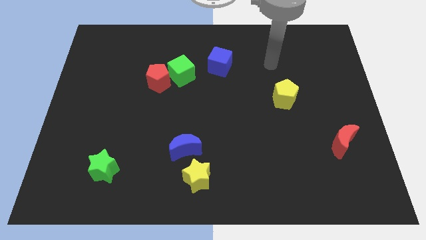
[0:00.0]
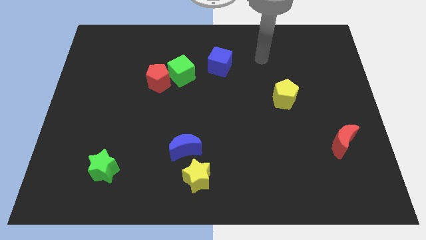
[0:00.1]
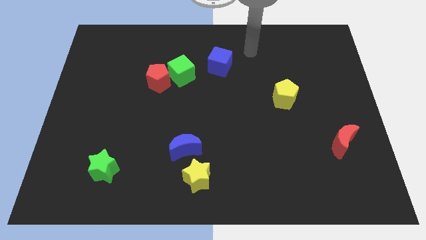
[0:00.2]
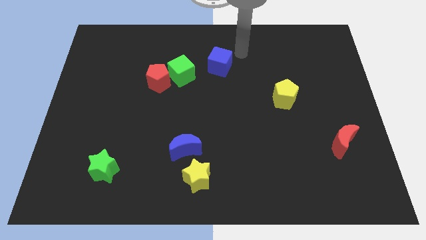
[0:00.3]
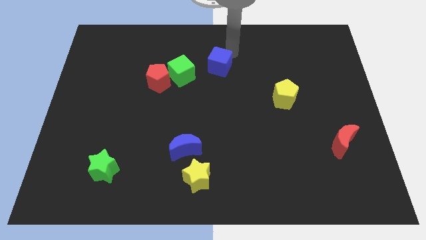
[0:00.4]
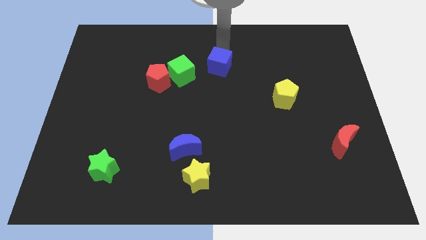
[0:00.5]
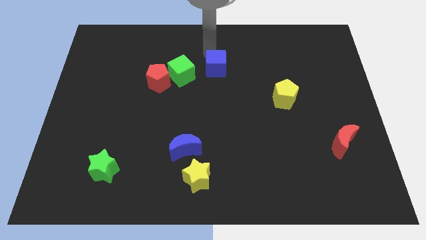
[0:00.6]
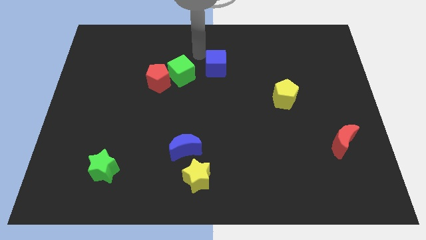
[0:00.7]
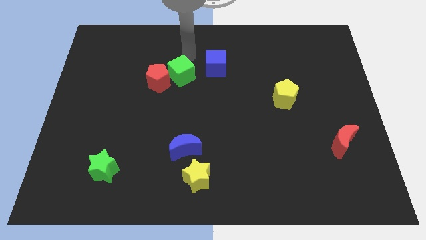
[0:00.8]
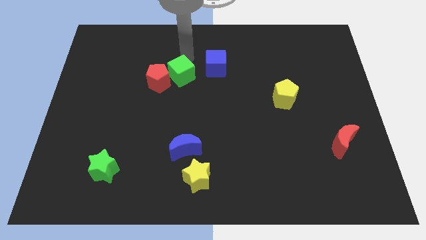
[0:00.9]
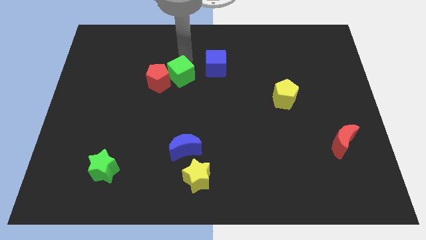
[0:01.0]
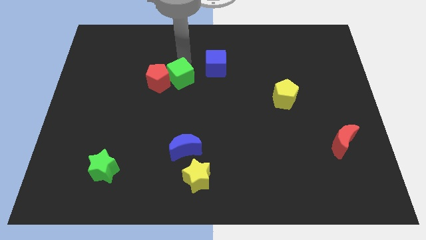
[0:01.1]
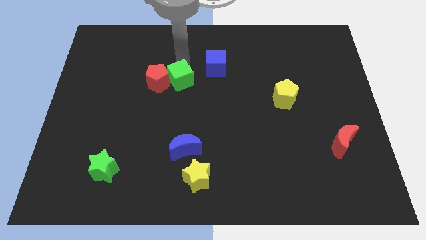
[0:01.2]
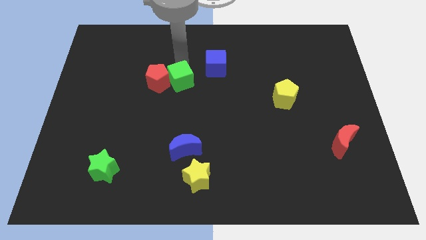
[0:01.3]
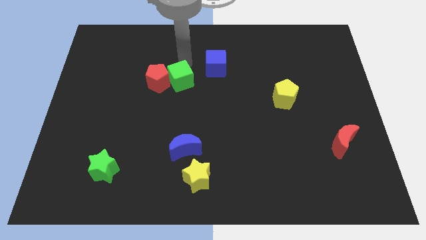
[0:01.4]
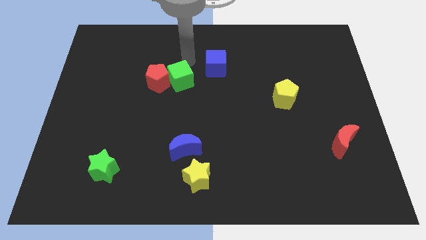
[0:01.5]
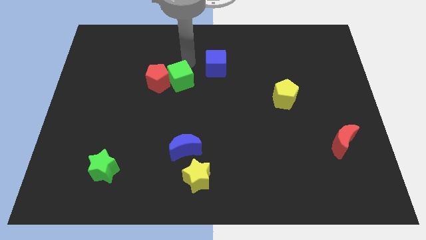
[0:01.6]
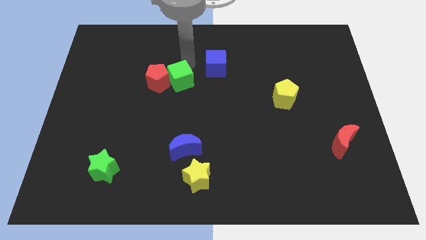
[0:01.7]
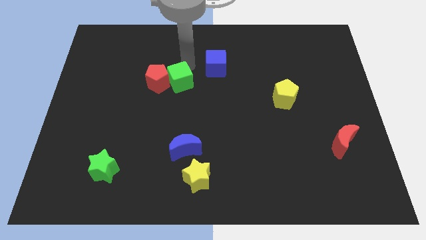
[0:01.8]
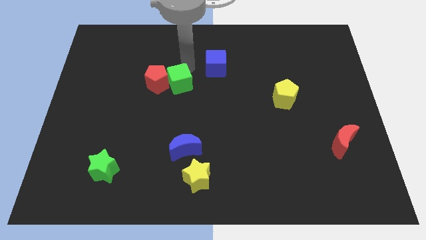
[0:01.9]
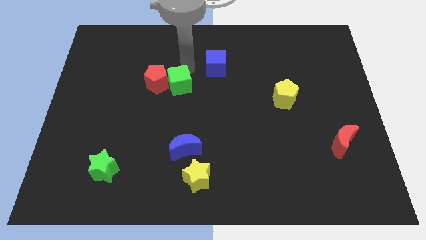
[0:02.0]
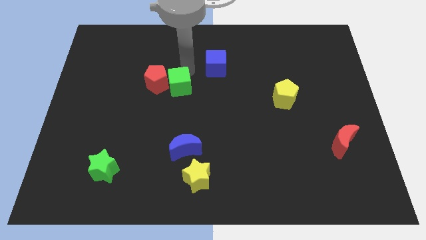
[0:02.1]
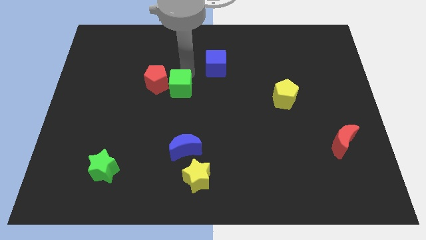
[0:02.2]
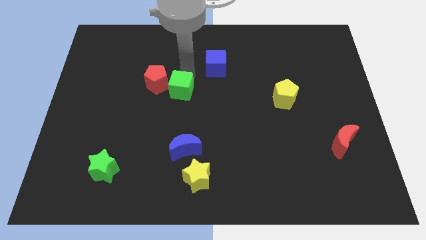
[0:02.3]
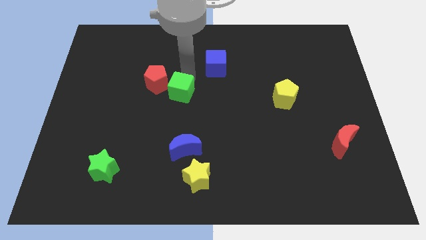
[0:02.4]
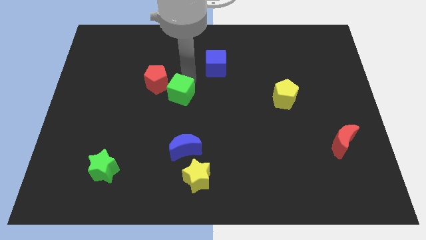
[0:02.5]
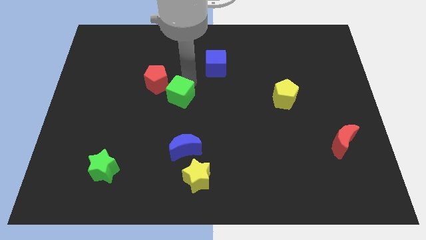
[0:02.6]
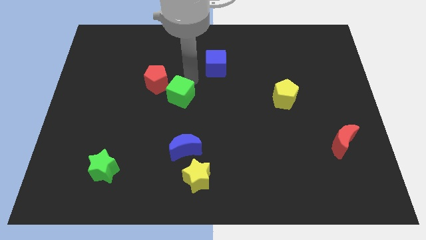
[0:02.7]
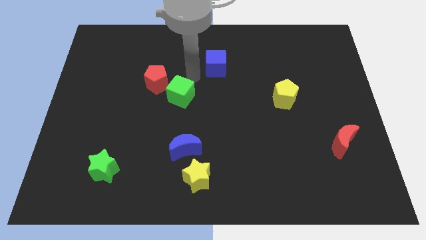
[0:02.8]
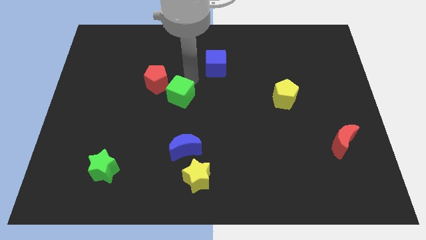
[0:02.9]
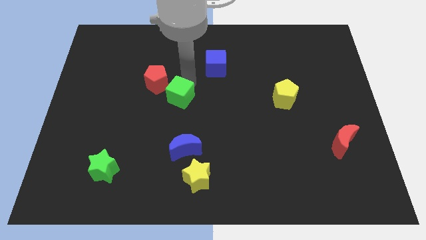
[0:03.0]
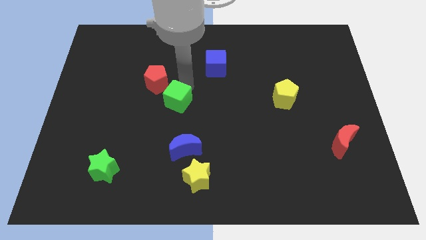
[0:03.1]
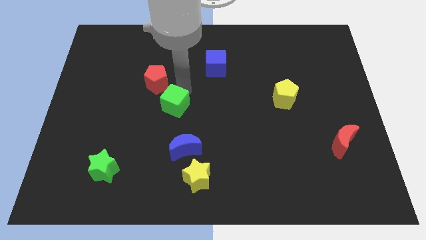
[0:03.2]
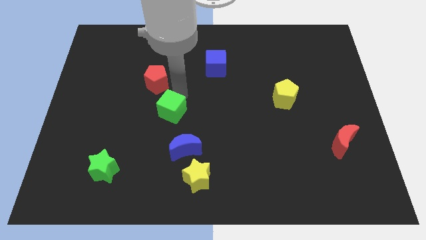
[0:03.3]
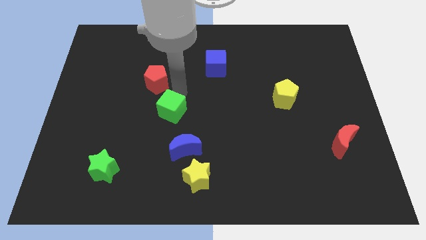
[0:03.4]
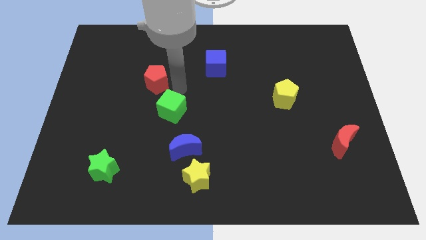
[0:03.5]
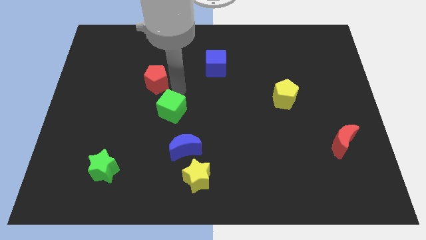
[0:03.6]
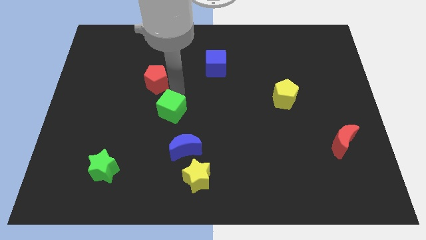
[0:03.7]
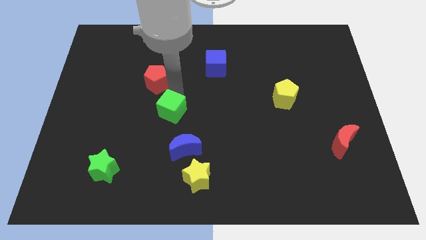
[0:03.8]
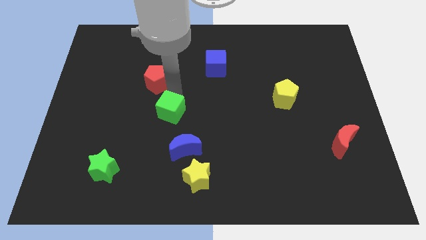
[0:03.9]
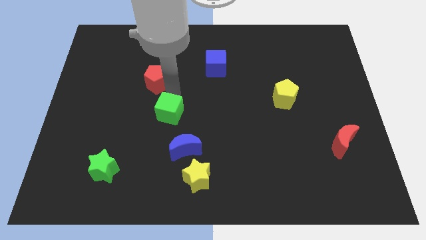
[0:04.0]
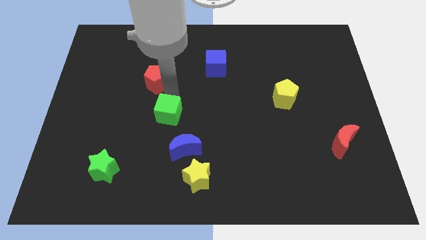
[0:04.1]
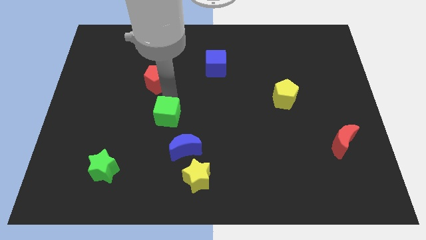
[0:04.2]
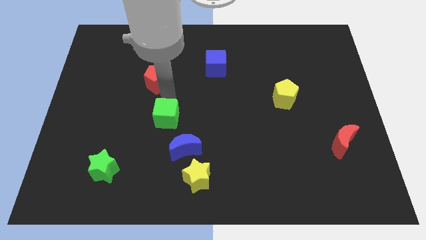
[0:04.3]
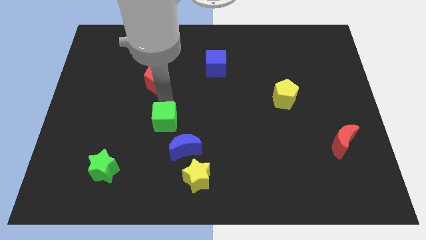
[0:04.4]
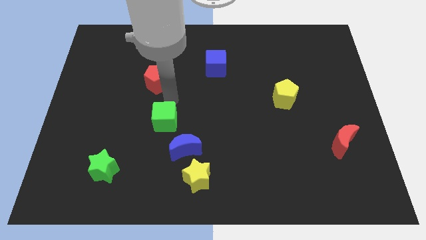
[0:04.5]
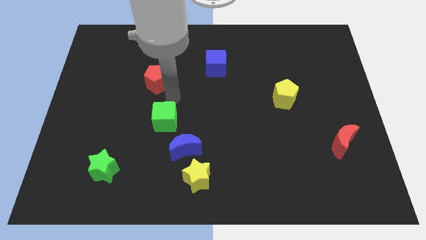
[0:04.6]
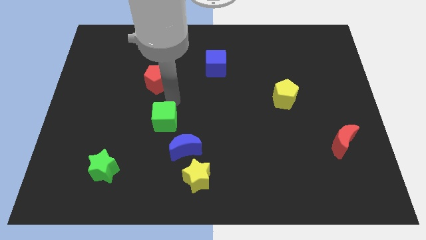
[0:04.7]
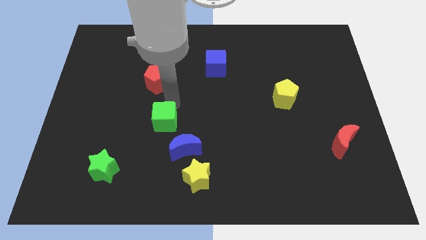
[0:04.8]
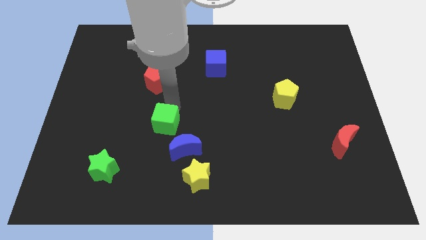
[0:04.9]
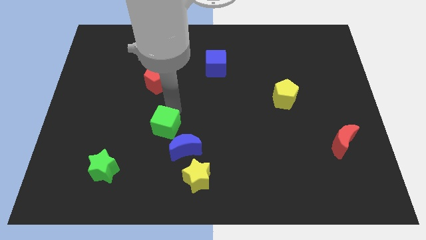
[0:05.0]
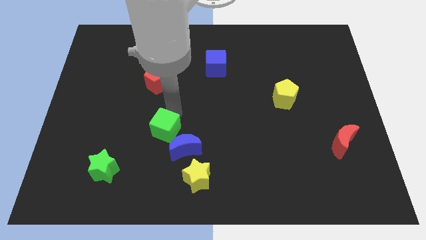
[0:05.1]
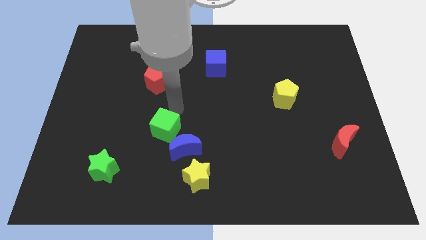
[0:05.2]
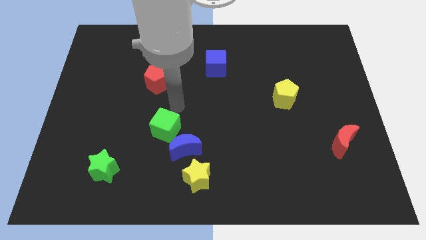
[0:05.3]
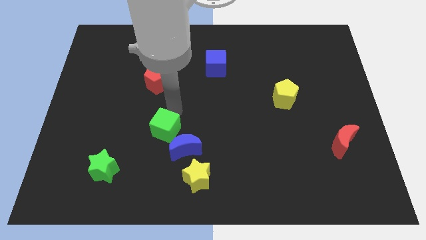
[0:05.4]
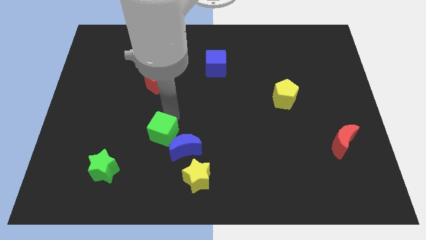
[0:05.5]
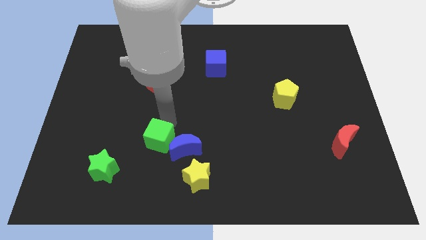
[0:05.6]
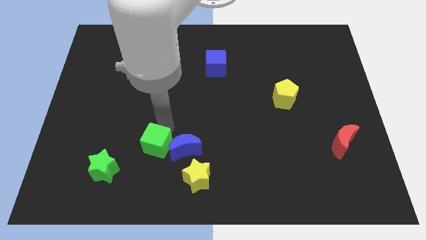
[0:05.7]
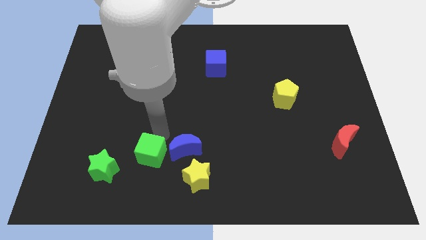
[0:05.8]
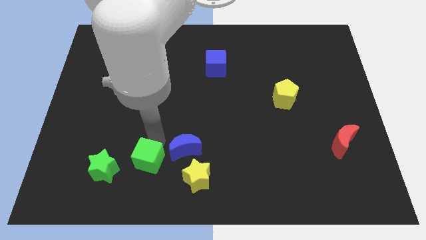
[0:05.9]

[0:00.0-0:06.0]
slide the green cube to the left side of the yellow star

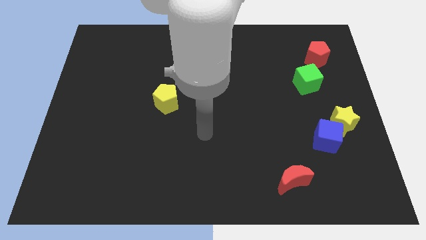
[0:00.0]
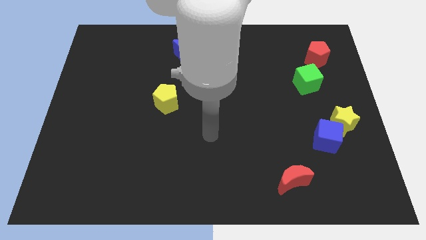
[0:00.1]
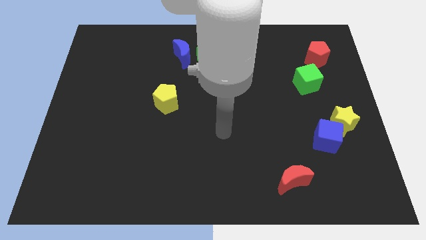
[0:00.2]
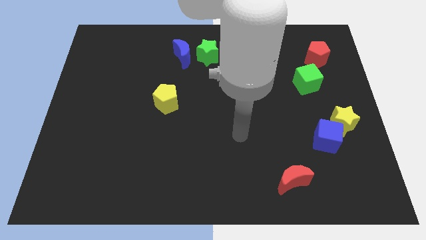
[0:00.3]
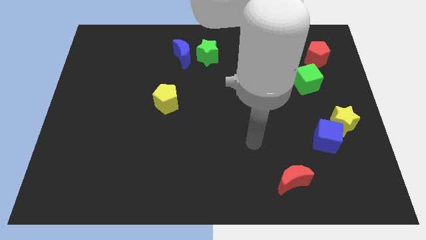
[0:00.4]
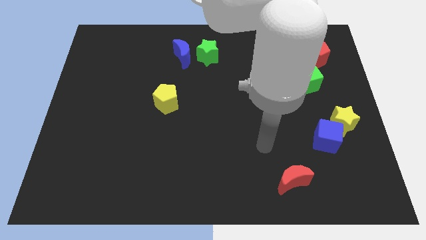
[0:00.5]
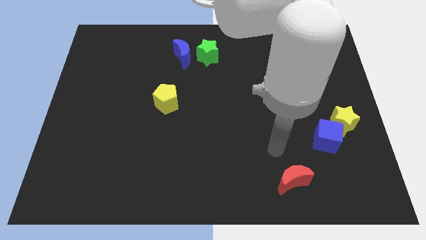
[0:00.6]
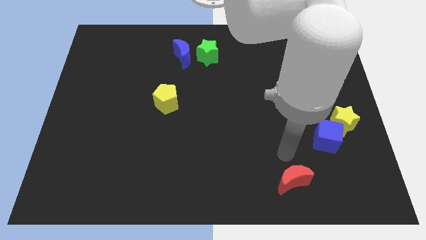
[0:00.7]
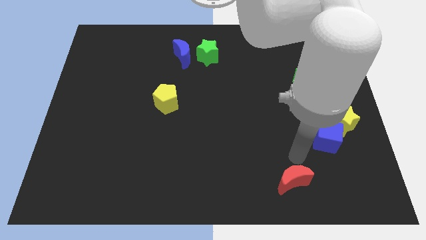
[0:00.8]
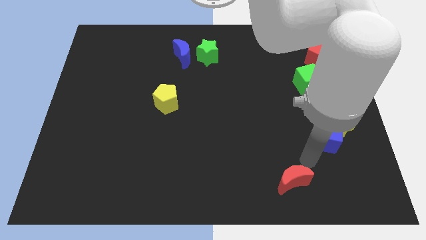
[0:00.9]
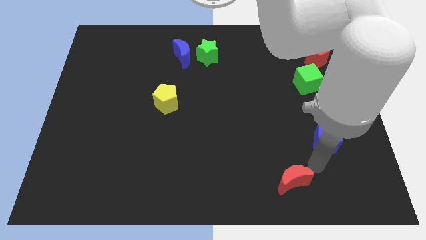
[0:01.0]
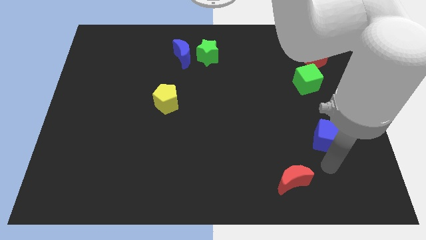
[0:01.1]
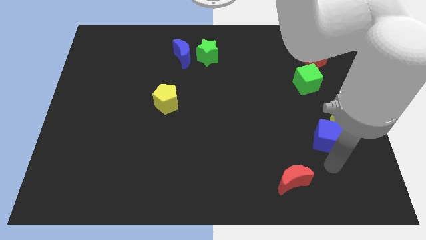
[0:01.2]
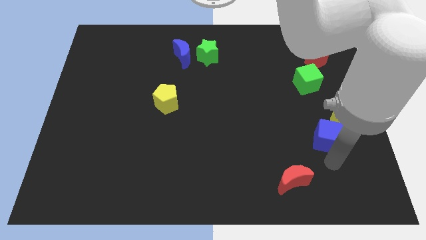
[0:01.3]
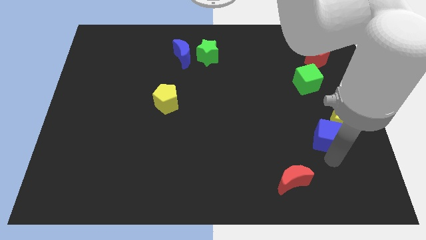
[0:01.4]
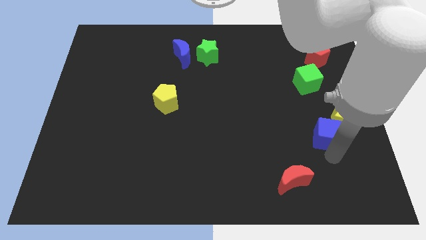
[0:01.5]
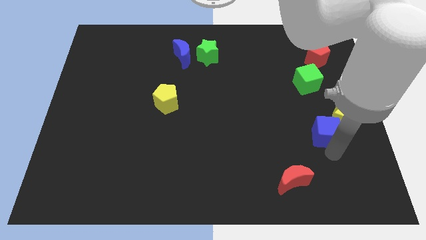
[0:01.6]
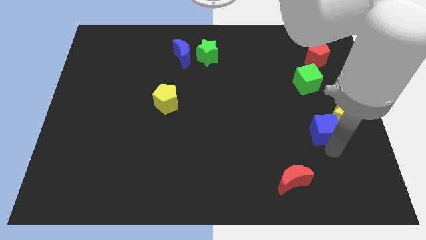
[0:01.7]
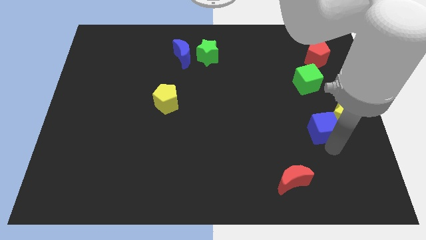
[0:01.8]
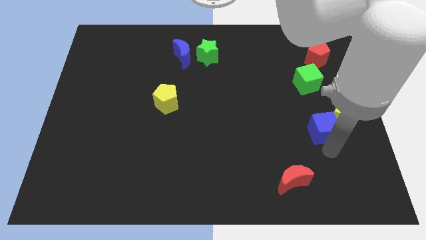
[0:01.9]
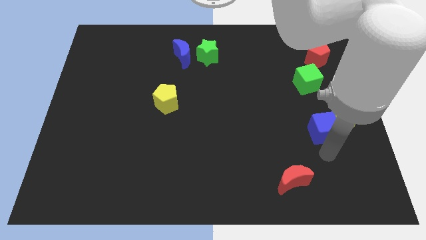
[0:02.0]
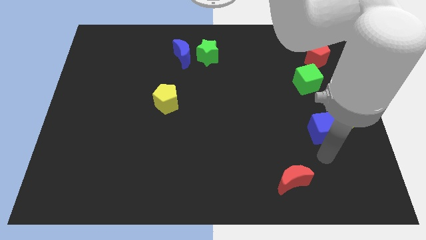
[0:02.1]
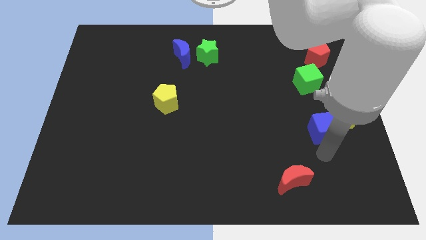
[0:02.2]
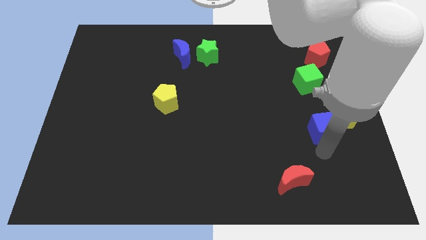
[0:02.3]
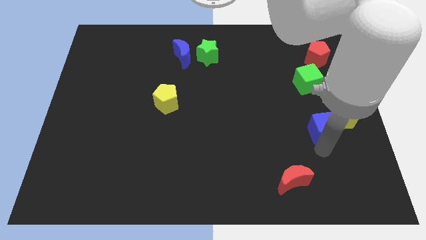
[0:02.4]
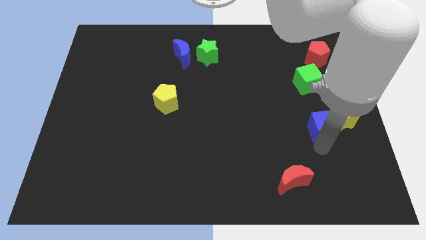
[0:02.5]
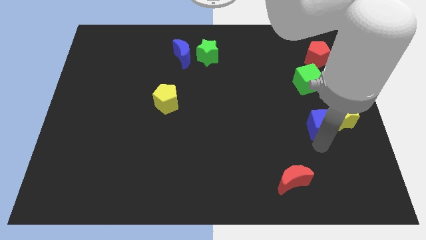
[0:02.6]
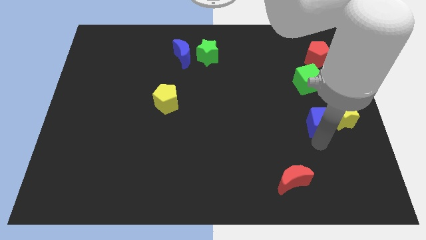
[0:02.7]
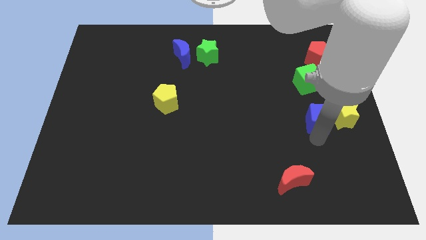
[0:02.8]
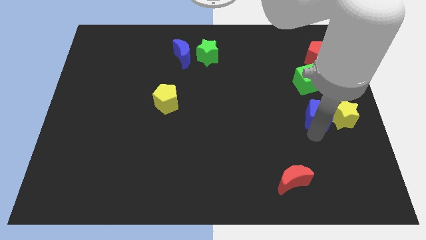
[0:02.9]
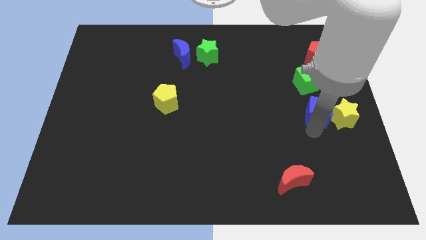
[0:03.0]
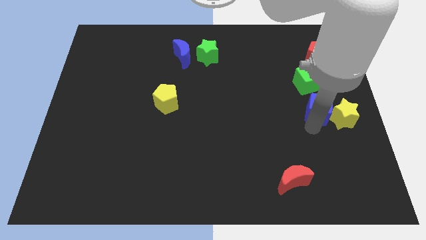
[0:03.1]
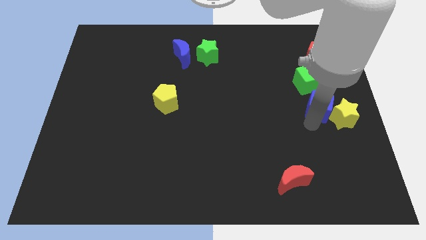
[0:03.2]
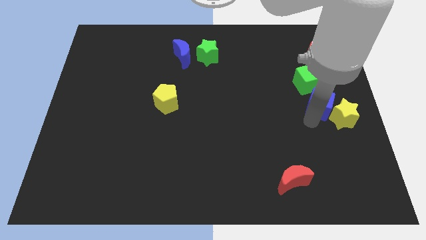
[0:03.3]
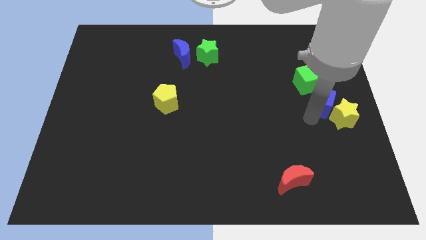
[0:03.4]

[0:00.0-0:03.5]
move the blue cube to the bottom side of the red pentagon
